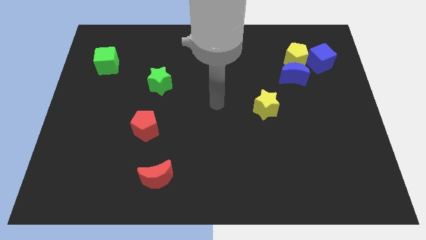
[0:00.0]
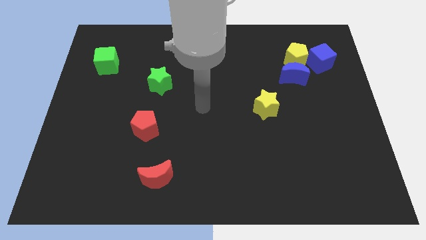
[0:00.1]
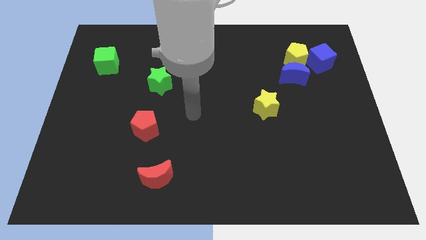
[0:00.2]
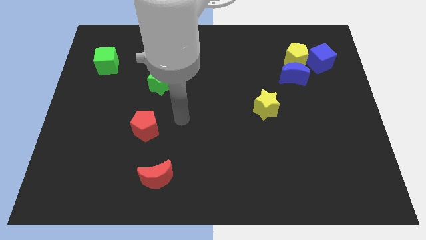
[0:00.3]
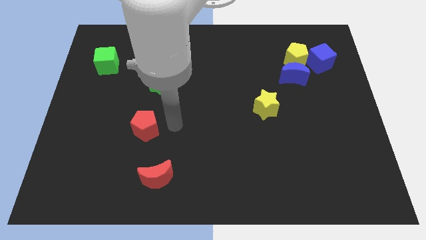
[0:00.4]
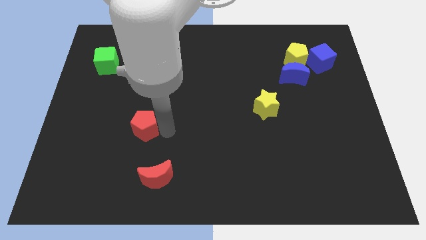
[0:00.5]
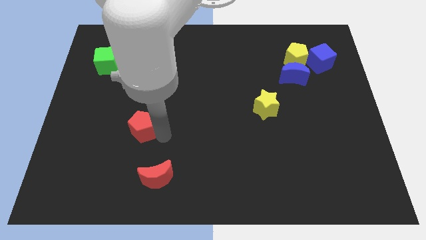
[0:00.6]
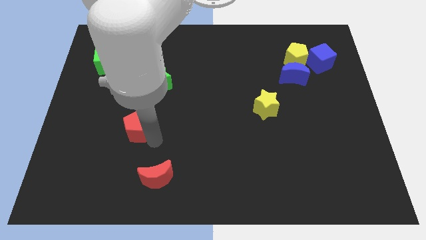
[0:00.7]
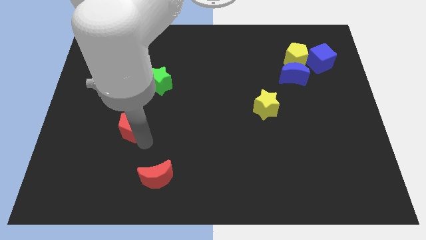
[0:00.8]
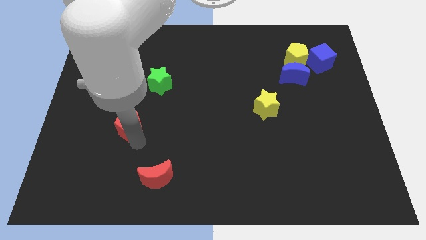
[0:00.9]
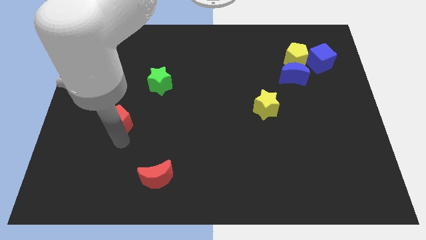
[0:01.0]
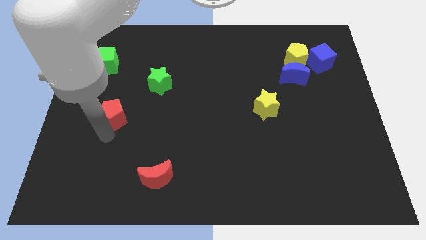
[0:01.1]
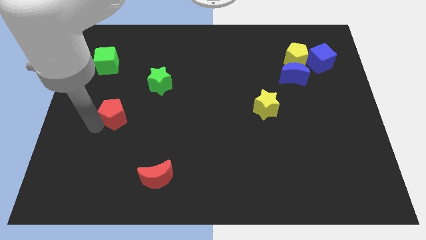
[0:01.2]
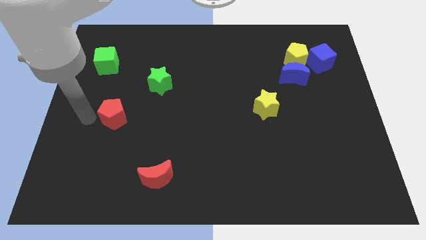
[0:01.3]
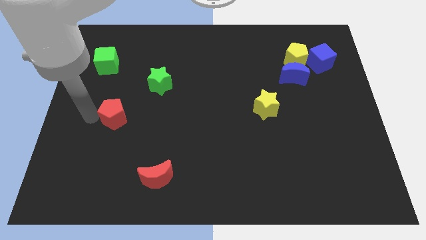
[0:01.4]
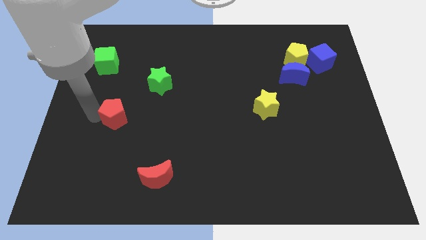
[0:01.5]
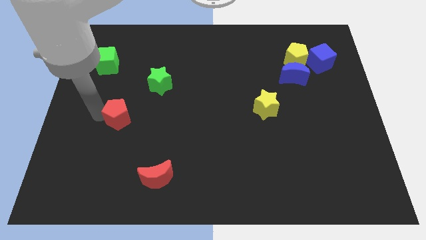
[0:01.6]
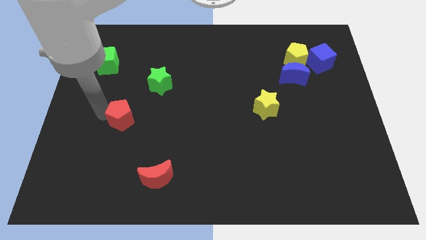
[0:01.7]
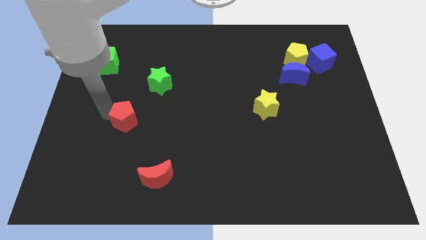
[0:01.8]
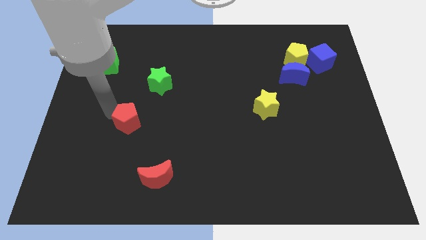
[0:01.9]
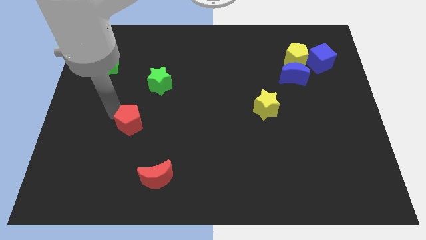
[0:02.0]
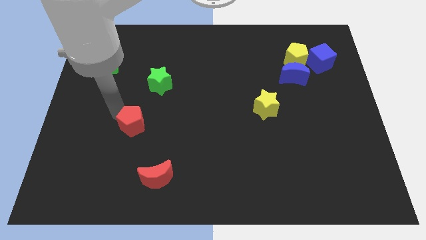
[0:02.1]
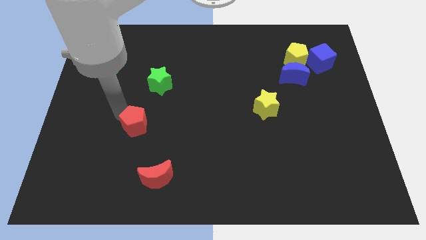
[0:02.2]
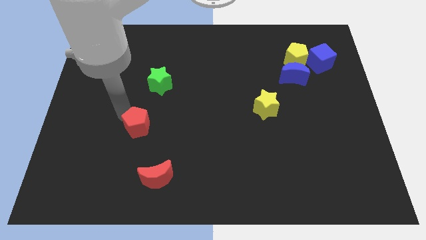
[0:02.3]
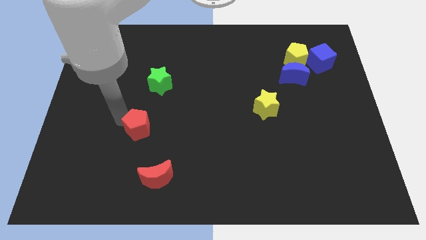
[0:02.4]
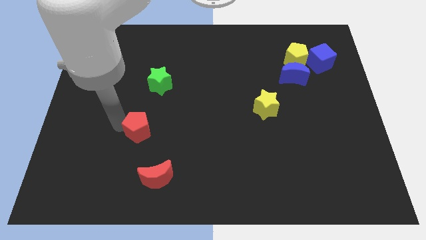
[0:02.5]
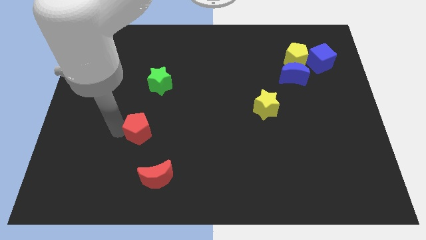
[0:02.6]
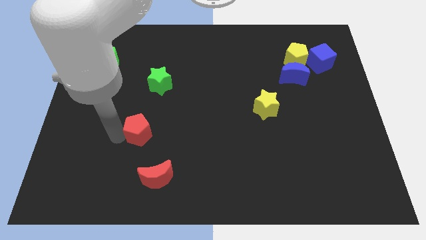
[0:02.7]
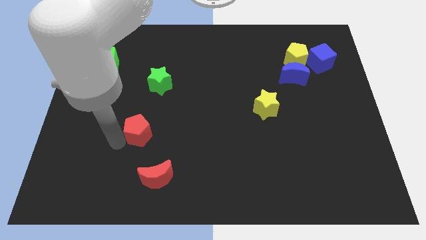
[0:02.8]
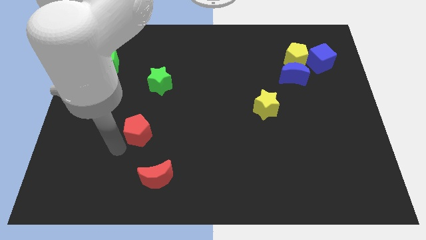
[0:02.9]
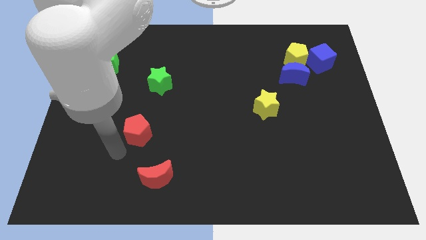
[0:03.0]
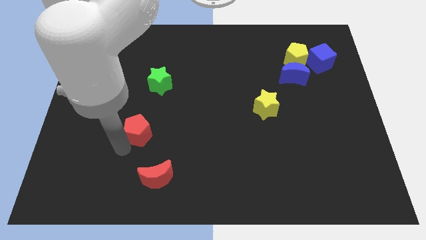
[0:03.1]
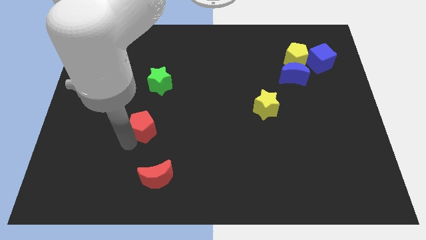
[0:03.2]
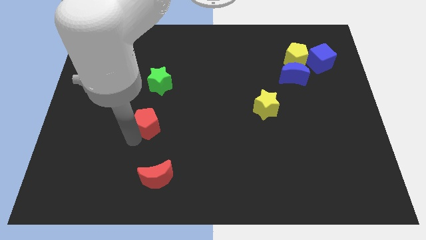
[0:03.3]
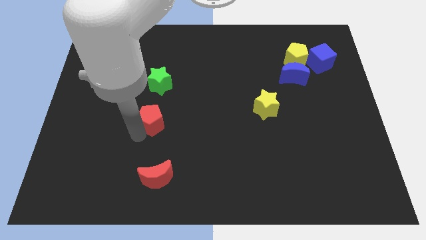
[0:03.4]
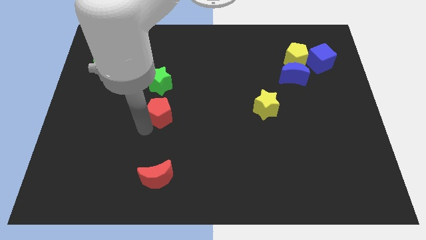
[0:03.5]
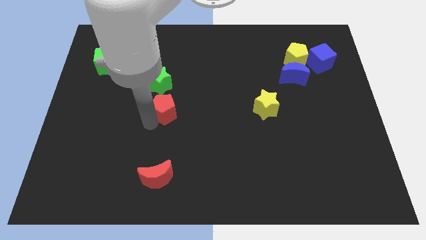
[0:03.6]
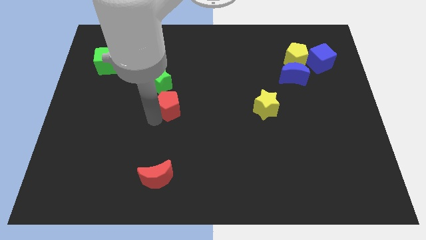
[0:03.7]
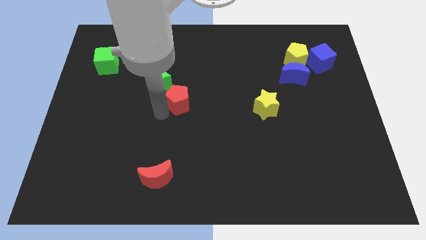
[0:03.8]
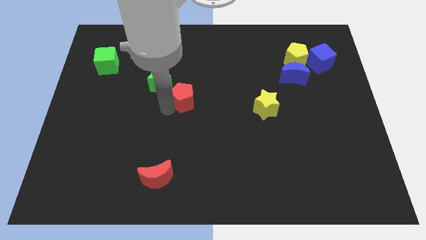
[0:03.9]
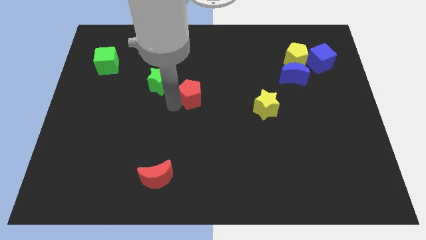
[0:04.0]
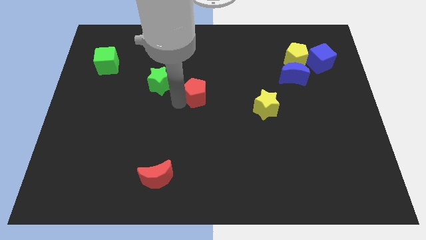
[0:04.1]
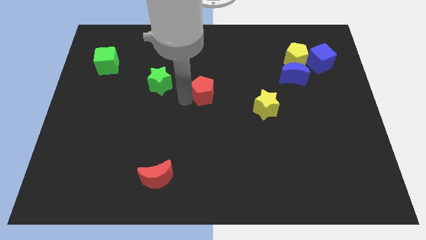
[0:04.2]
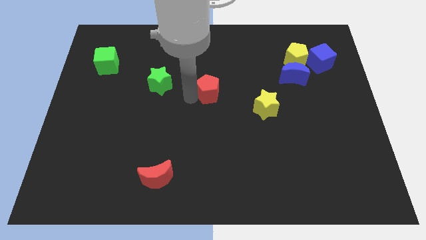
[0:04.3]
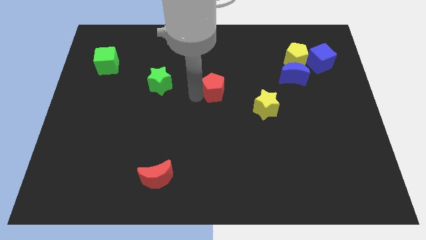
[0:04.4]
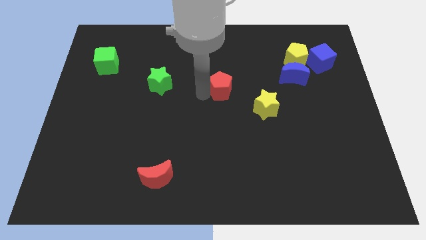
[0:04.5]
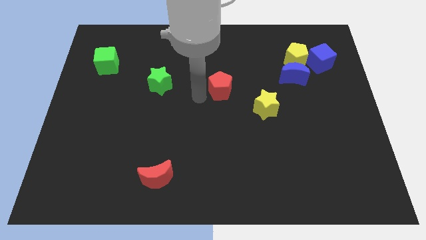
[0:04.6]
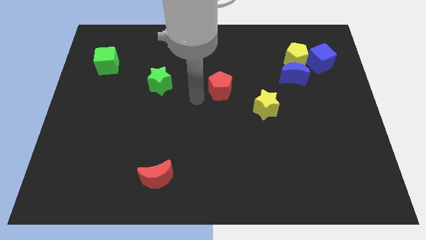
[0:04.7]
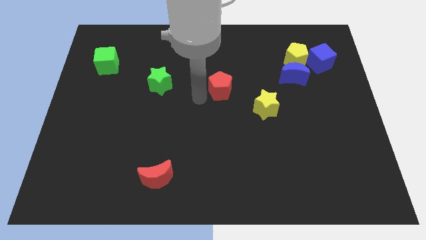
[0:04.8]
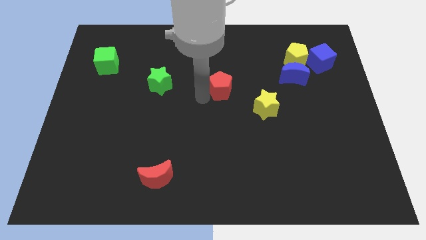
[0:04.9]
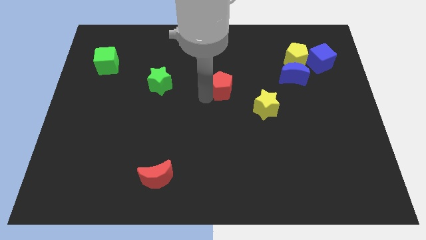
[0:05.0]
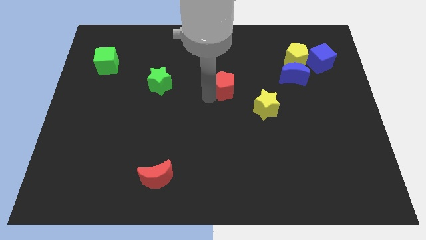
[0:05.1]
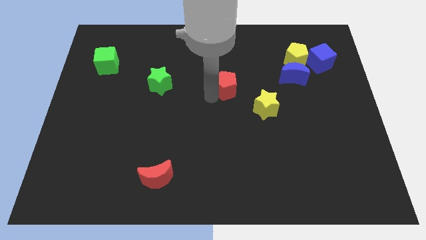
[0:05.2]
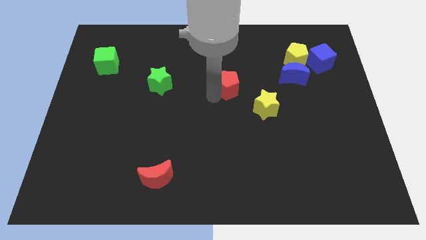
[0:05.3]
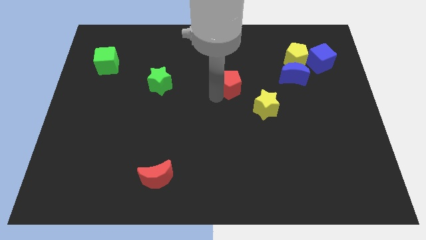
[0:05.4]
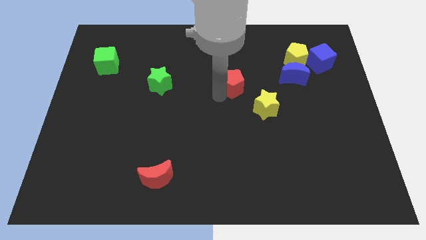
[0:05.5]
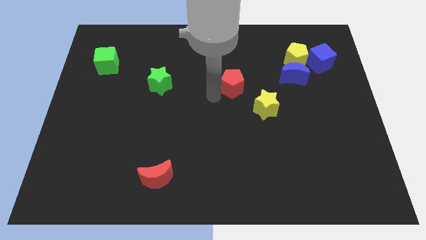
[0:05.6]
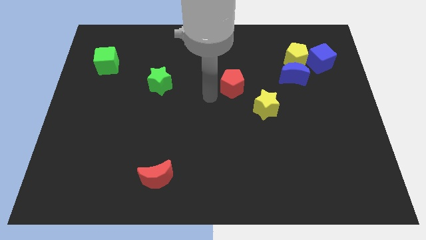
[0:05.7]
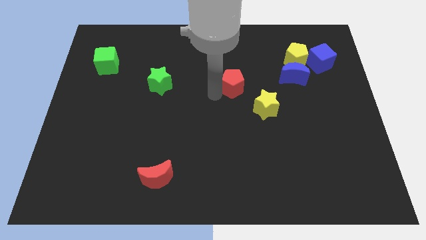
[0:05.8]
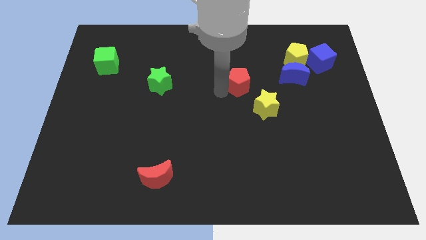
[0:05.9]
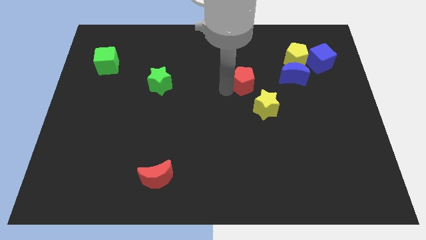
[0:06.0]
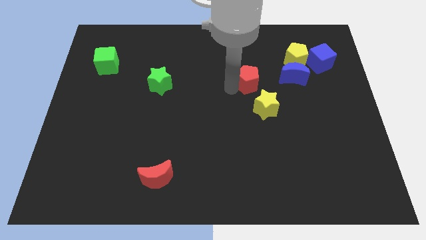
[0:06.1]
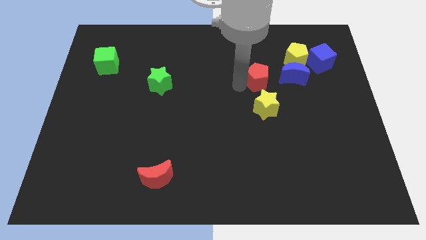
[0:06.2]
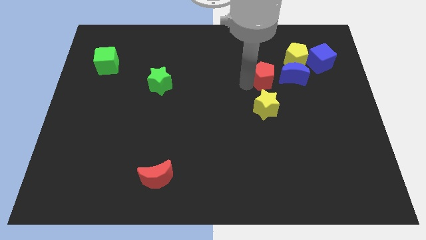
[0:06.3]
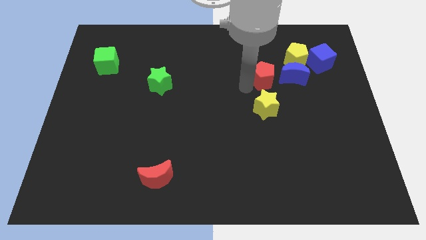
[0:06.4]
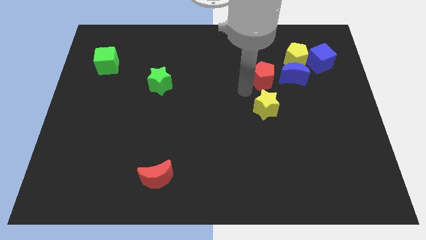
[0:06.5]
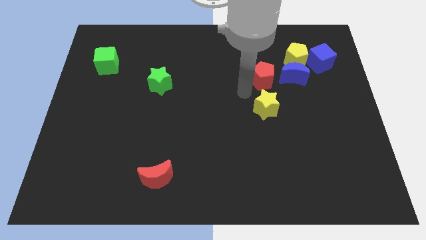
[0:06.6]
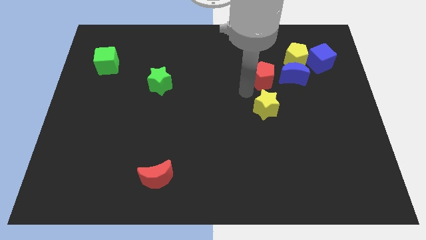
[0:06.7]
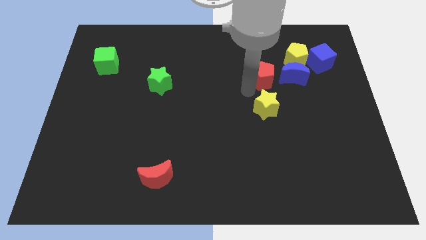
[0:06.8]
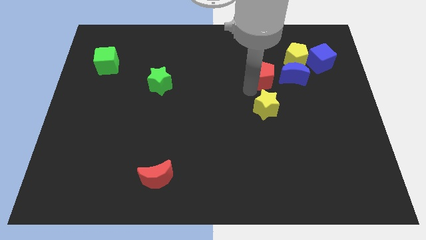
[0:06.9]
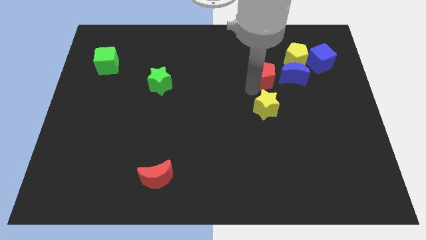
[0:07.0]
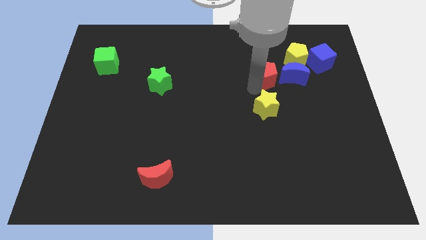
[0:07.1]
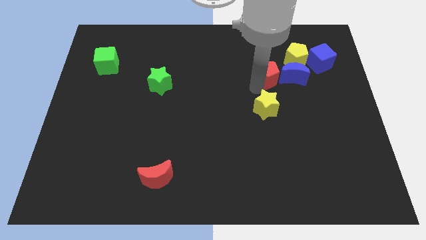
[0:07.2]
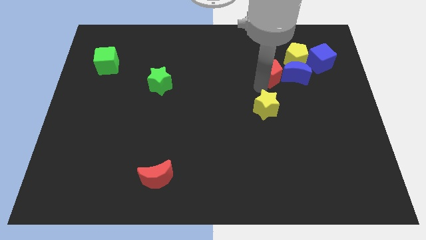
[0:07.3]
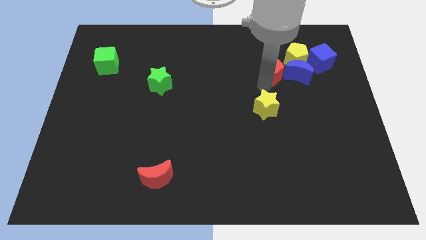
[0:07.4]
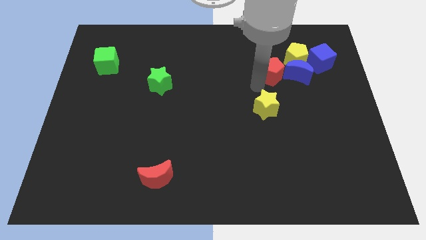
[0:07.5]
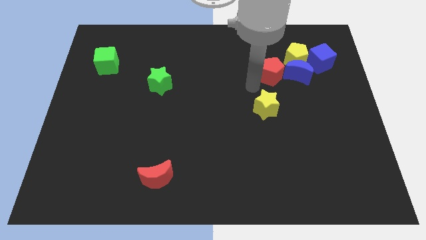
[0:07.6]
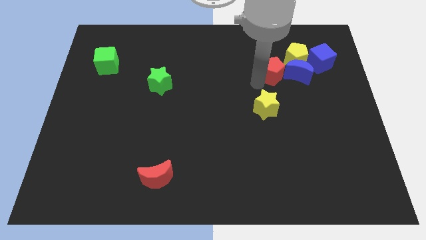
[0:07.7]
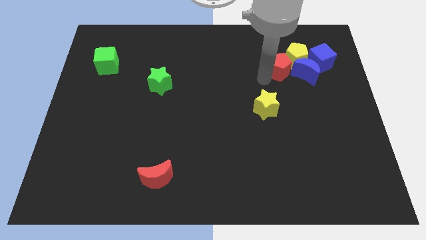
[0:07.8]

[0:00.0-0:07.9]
push the red pentagon towards the yellow pentagon
